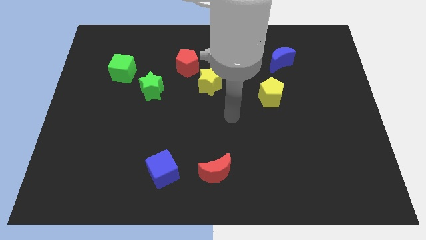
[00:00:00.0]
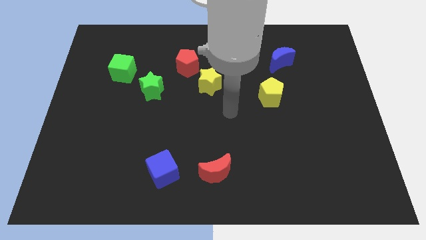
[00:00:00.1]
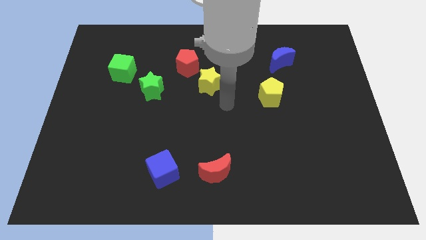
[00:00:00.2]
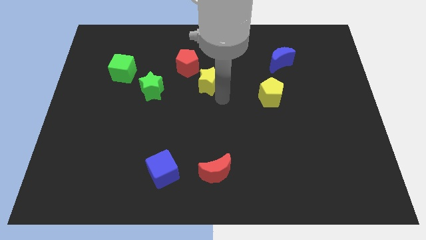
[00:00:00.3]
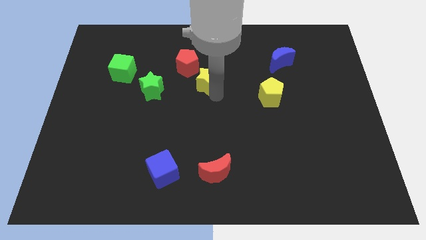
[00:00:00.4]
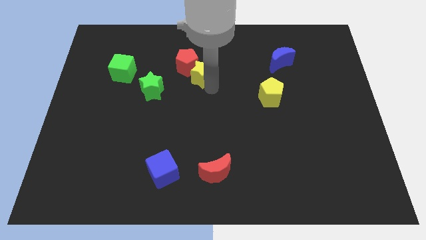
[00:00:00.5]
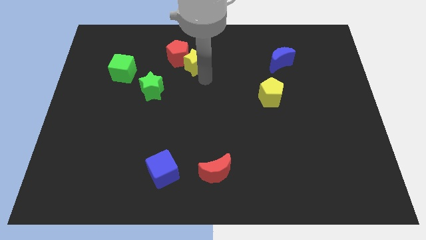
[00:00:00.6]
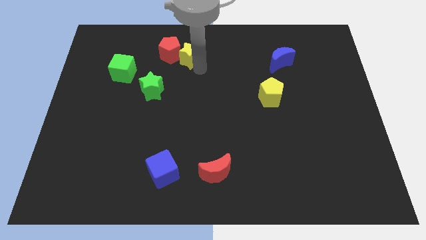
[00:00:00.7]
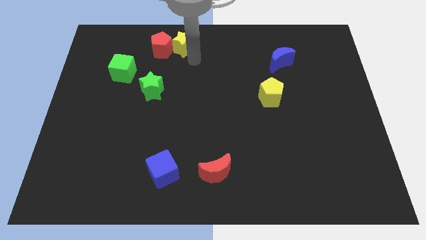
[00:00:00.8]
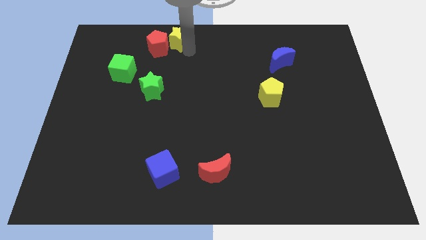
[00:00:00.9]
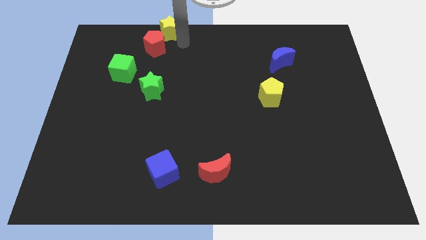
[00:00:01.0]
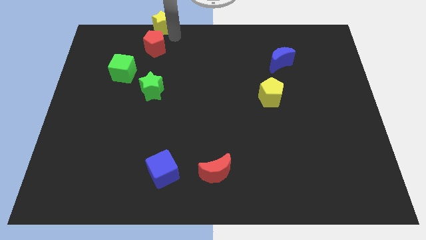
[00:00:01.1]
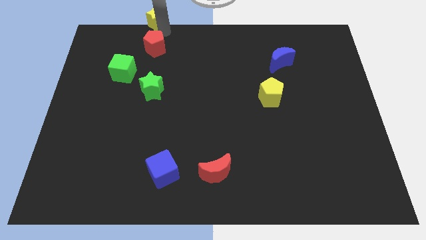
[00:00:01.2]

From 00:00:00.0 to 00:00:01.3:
separate the red pentagon from the yellow star

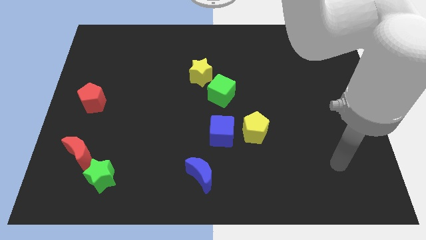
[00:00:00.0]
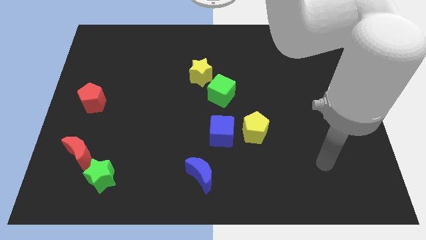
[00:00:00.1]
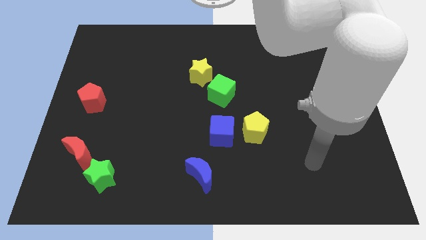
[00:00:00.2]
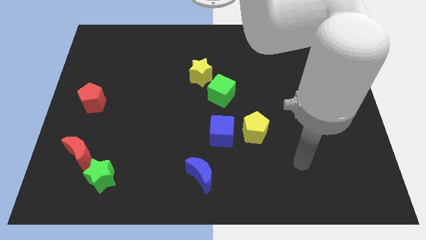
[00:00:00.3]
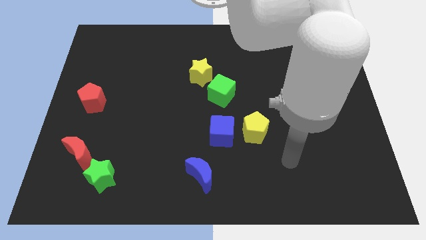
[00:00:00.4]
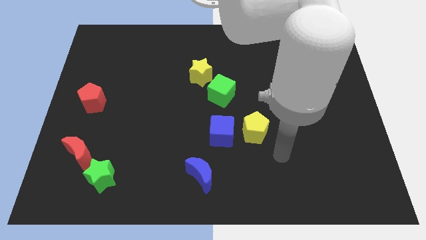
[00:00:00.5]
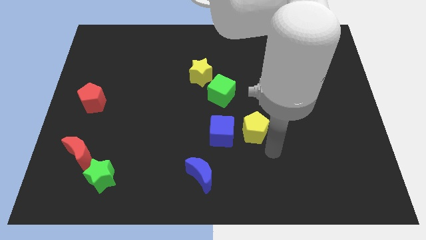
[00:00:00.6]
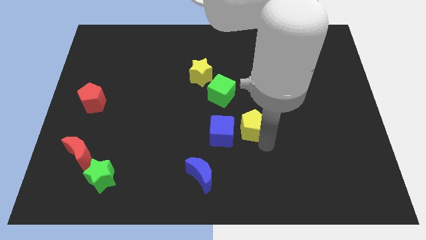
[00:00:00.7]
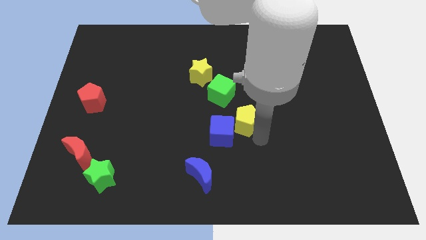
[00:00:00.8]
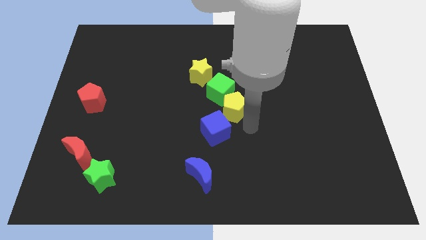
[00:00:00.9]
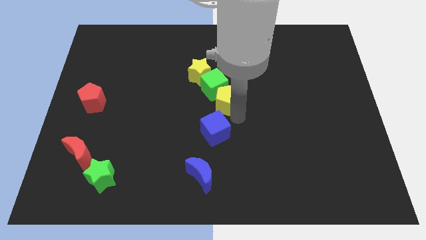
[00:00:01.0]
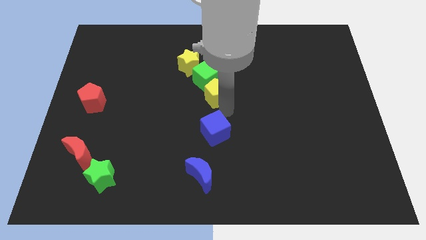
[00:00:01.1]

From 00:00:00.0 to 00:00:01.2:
separate the blue cube from the yellow pentagon

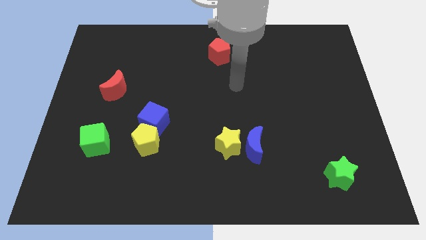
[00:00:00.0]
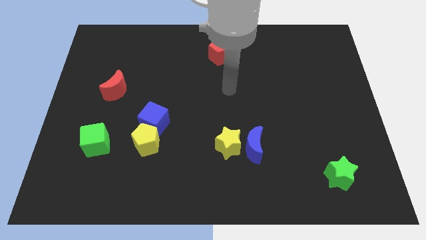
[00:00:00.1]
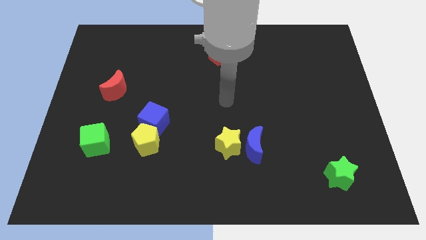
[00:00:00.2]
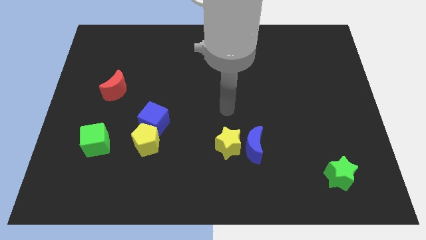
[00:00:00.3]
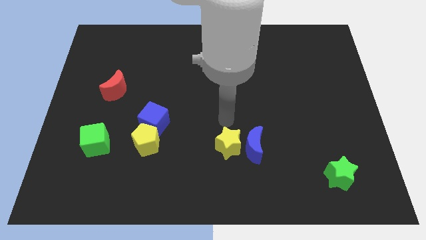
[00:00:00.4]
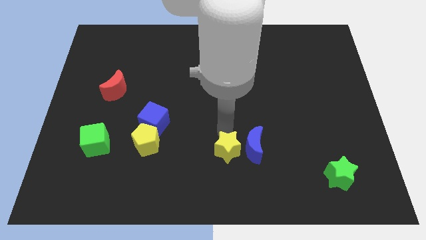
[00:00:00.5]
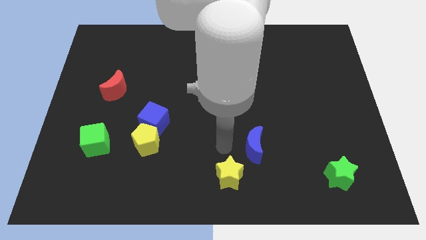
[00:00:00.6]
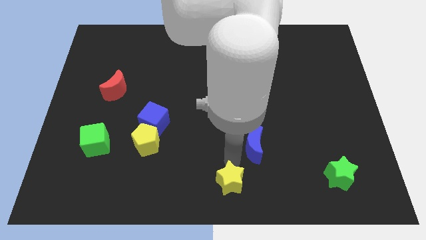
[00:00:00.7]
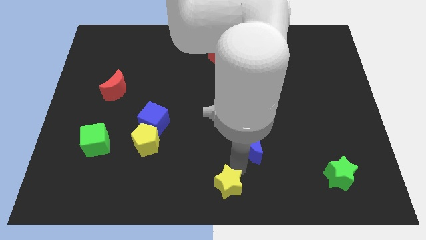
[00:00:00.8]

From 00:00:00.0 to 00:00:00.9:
pull the blue moon apart from the yellow star

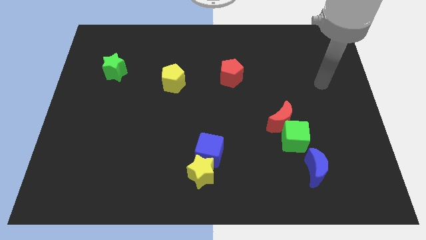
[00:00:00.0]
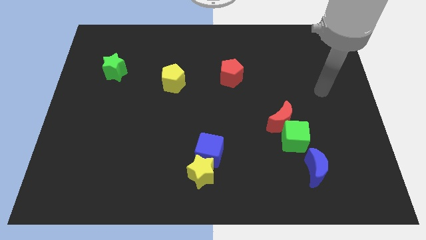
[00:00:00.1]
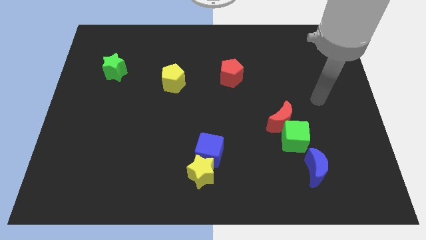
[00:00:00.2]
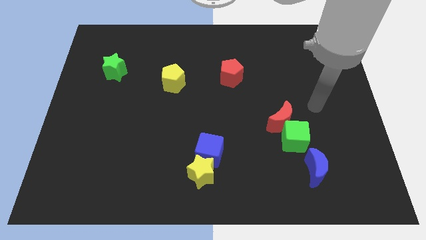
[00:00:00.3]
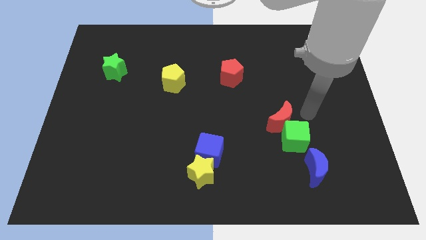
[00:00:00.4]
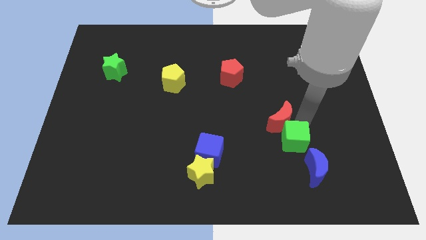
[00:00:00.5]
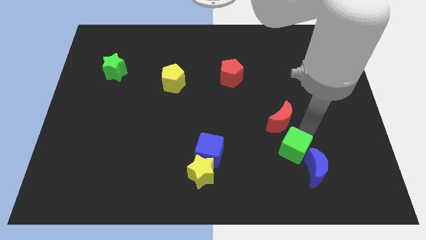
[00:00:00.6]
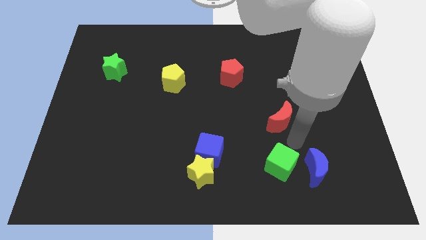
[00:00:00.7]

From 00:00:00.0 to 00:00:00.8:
separate the red moon from the green cube

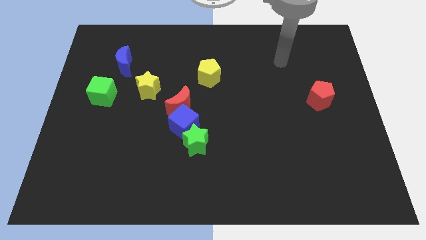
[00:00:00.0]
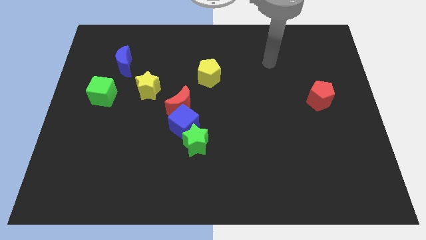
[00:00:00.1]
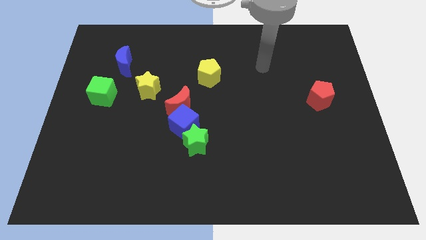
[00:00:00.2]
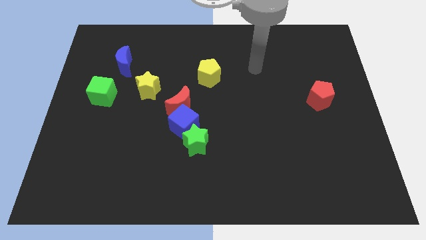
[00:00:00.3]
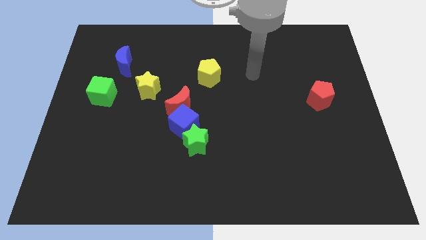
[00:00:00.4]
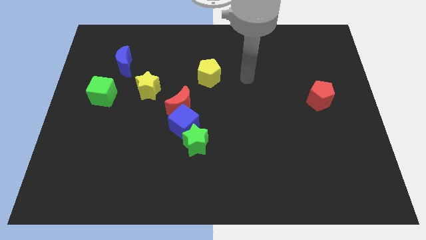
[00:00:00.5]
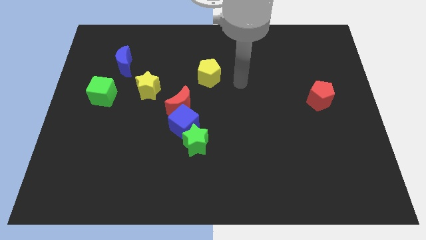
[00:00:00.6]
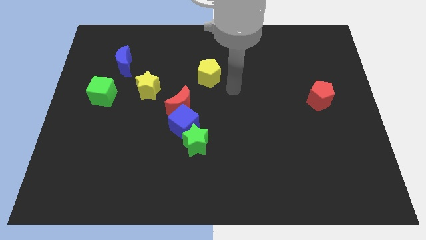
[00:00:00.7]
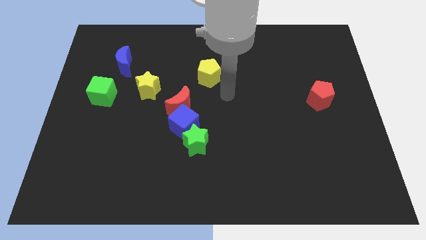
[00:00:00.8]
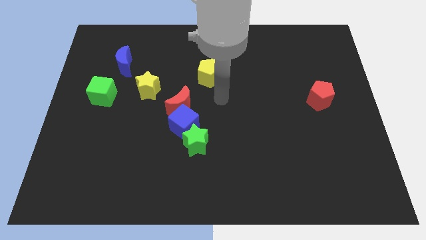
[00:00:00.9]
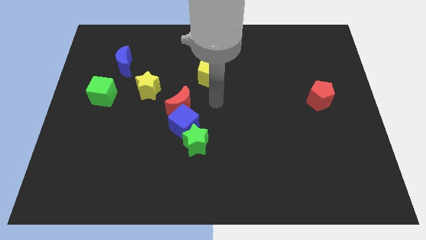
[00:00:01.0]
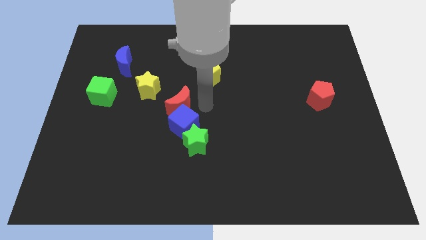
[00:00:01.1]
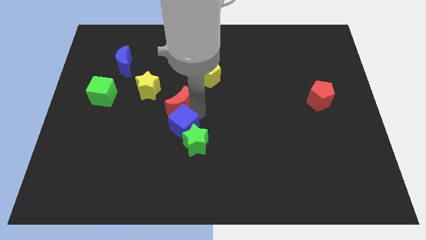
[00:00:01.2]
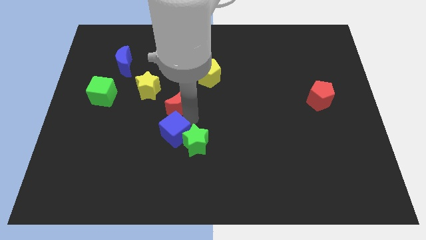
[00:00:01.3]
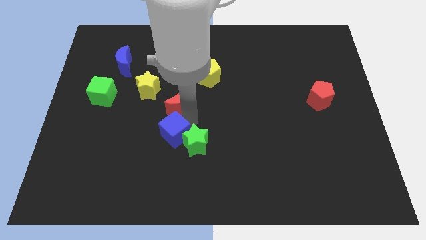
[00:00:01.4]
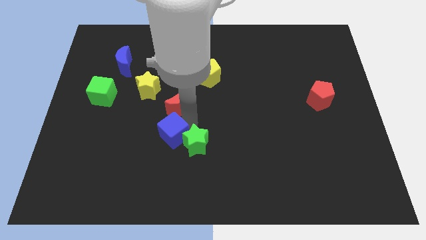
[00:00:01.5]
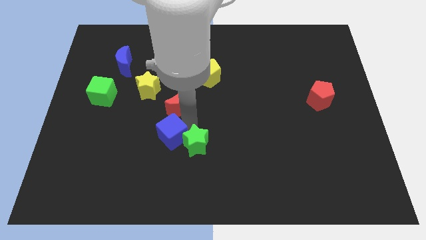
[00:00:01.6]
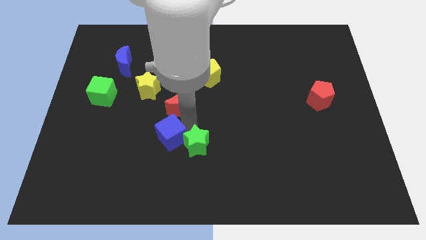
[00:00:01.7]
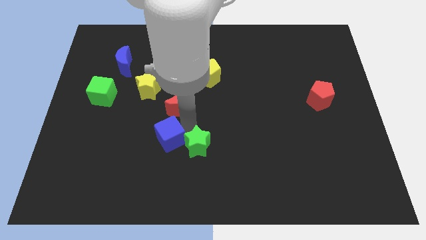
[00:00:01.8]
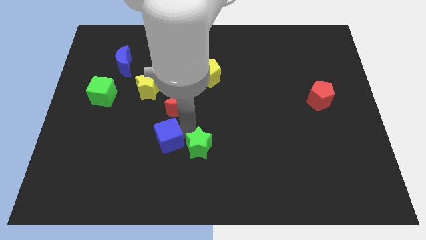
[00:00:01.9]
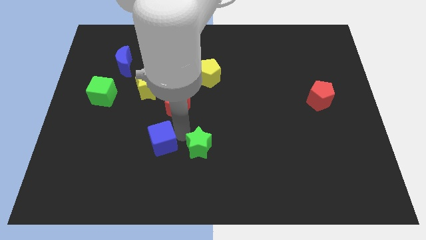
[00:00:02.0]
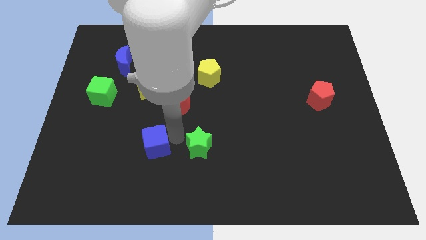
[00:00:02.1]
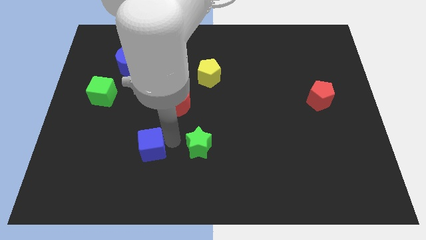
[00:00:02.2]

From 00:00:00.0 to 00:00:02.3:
move the green star away from the blue cube

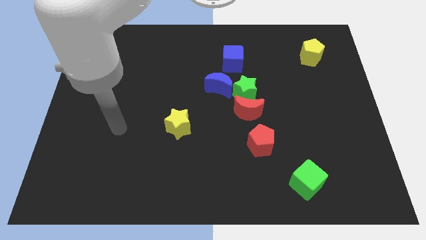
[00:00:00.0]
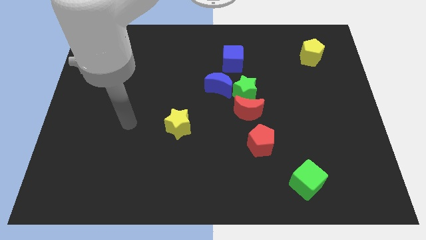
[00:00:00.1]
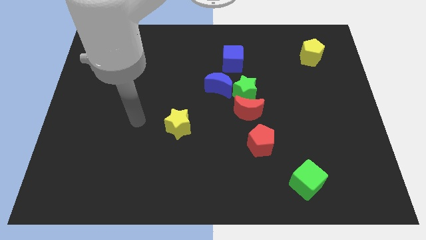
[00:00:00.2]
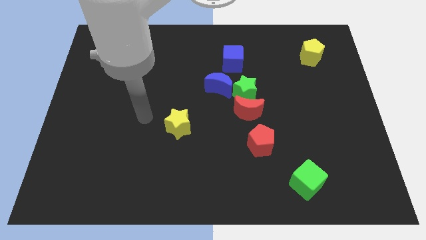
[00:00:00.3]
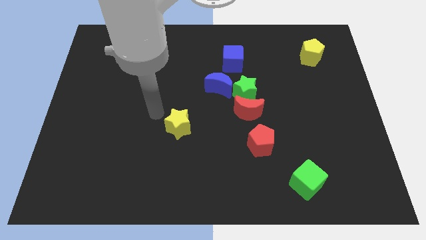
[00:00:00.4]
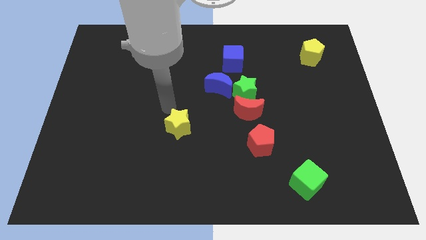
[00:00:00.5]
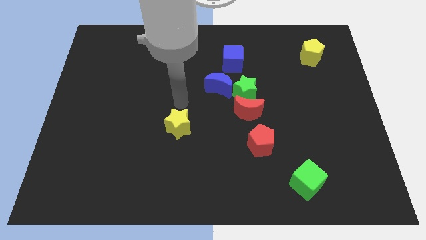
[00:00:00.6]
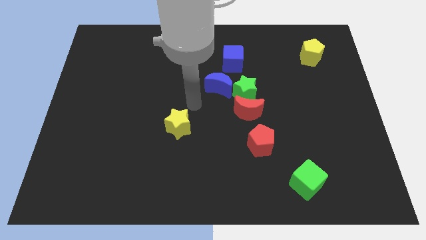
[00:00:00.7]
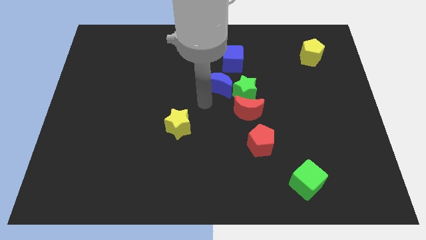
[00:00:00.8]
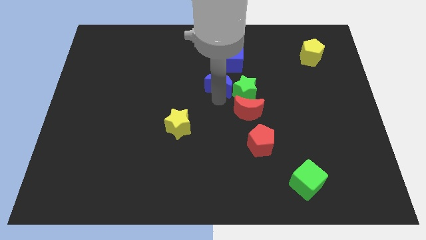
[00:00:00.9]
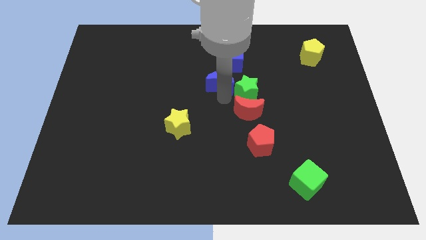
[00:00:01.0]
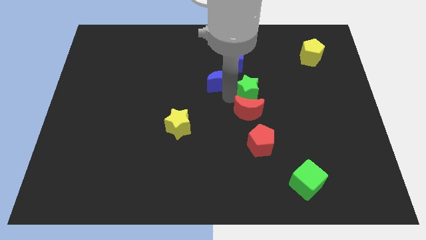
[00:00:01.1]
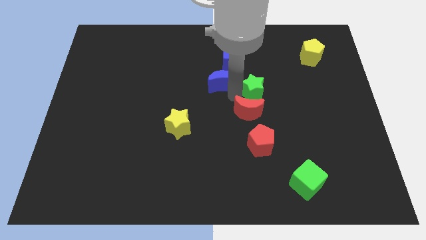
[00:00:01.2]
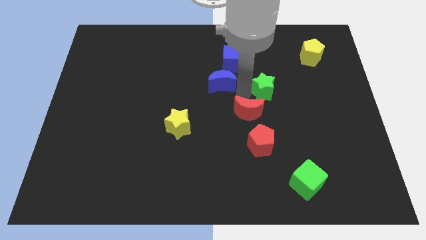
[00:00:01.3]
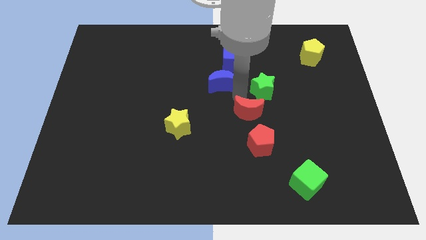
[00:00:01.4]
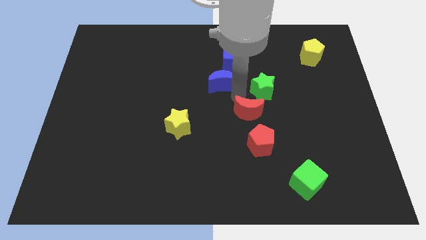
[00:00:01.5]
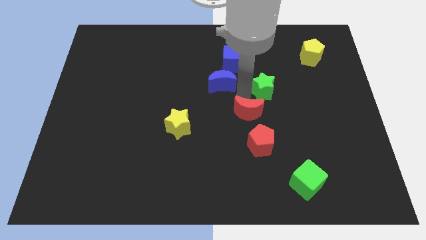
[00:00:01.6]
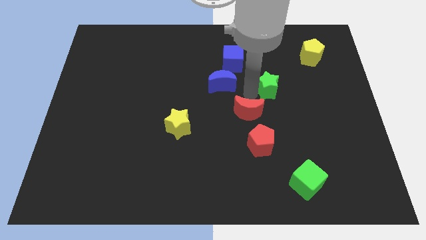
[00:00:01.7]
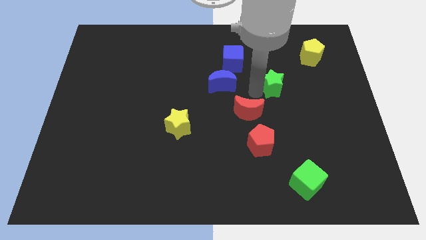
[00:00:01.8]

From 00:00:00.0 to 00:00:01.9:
pull the green star apart from the red moon and blue moon

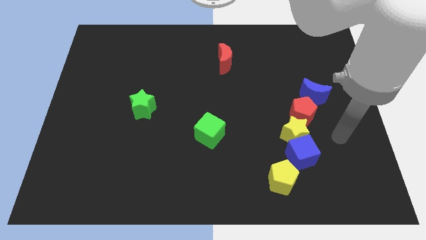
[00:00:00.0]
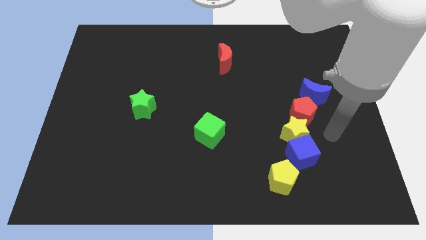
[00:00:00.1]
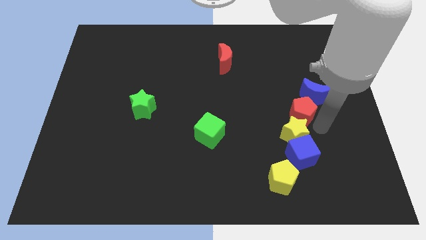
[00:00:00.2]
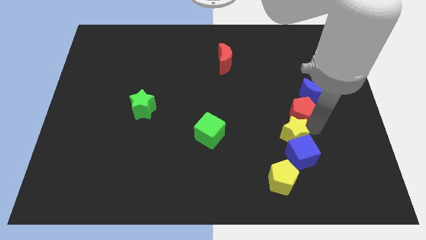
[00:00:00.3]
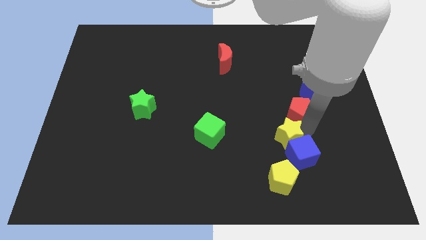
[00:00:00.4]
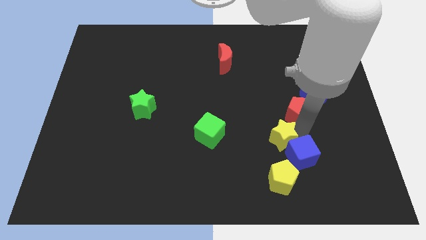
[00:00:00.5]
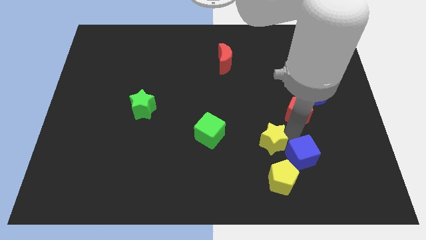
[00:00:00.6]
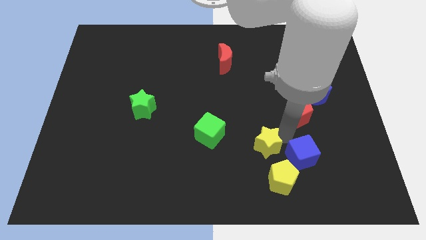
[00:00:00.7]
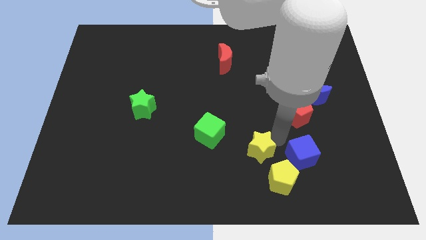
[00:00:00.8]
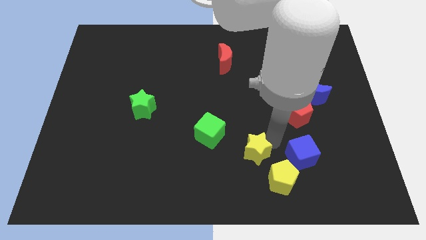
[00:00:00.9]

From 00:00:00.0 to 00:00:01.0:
pull the yellow star apart from the blue cube and red pentagon
